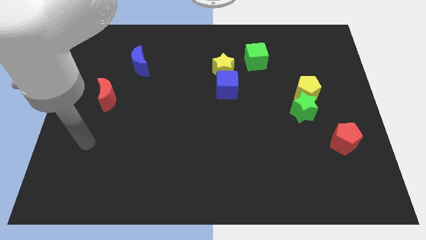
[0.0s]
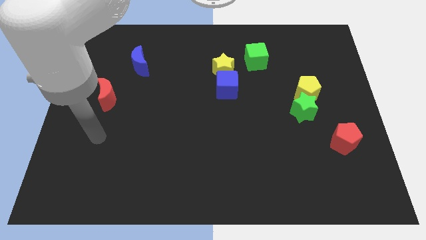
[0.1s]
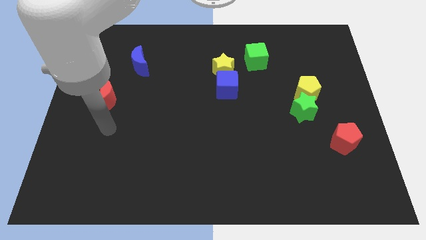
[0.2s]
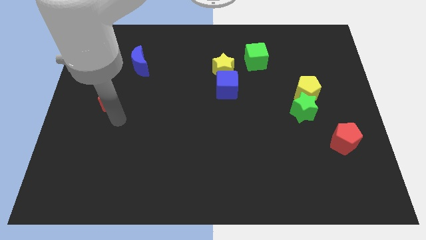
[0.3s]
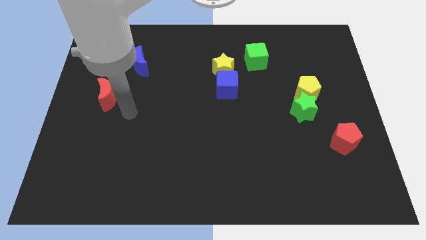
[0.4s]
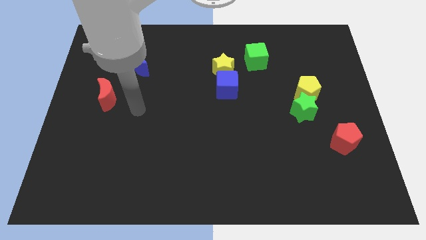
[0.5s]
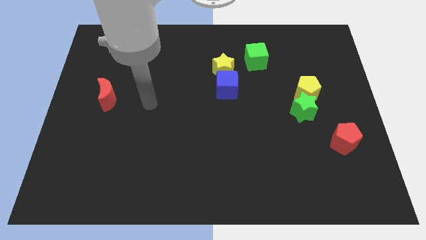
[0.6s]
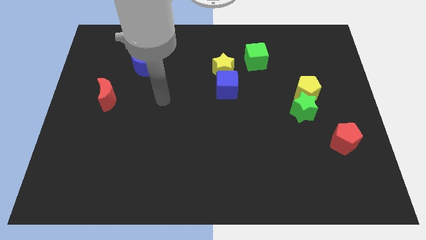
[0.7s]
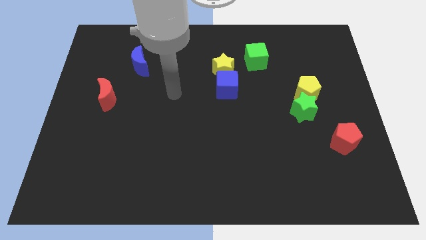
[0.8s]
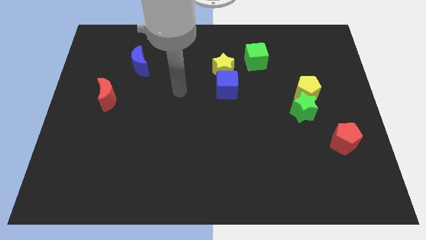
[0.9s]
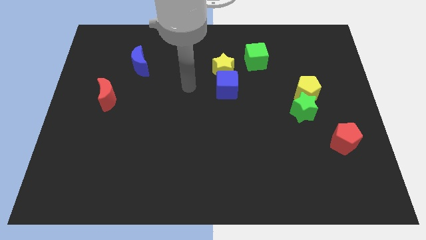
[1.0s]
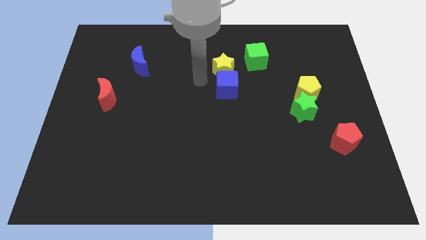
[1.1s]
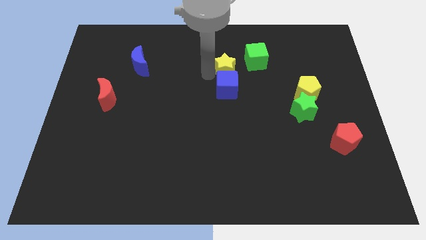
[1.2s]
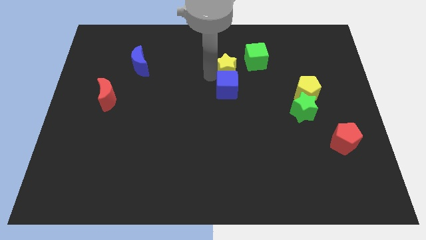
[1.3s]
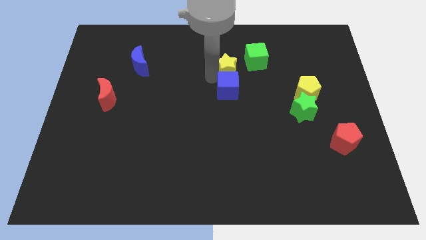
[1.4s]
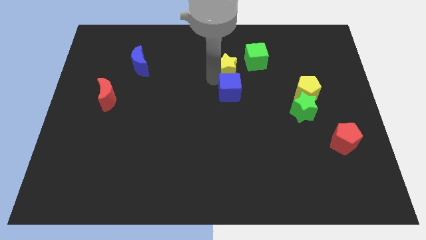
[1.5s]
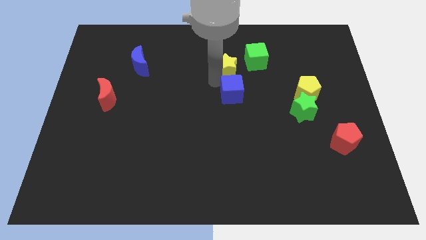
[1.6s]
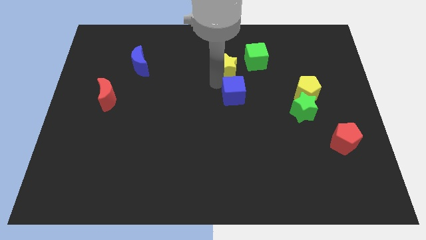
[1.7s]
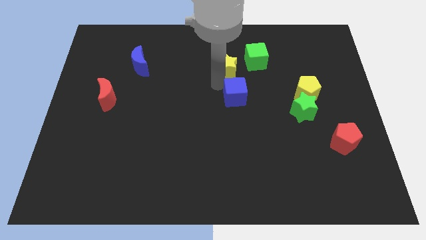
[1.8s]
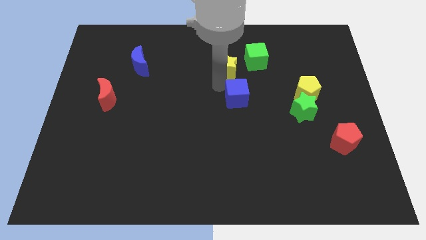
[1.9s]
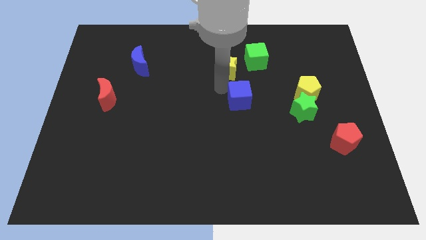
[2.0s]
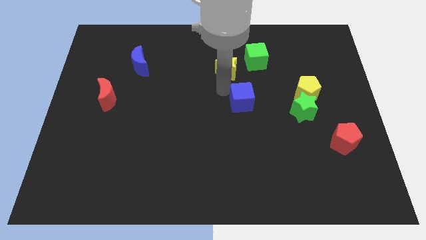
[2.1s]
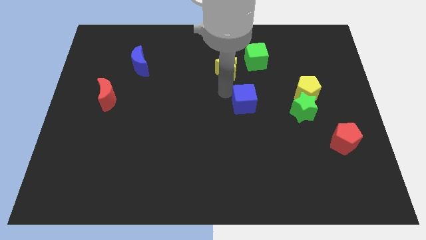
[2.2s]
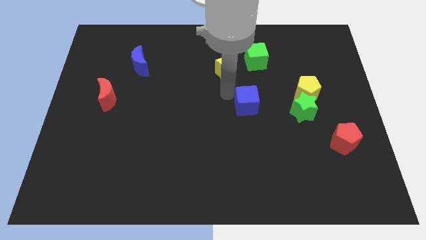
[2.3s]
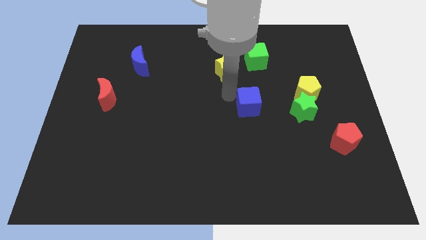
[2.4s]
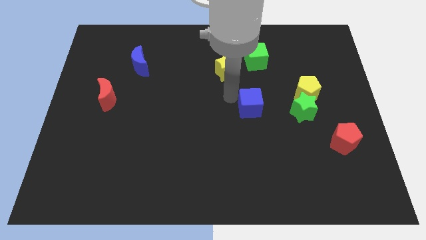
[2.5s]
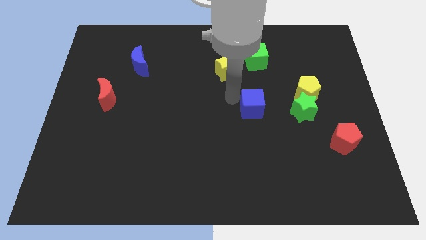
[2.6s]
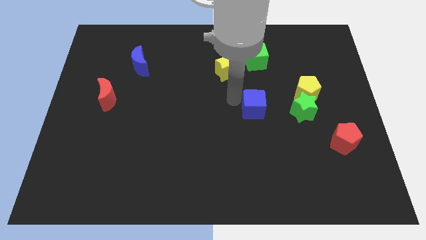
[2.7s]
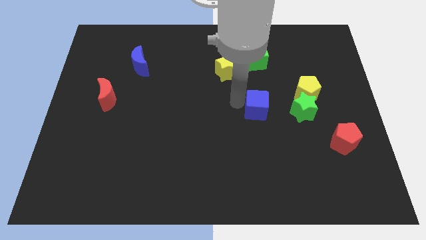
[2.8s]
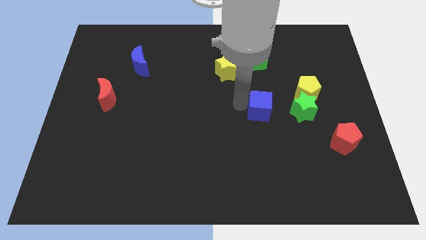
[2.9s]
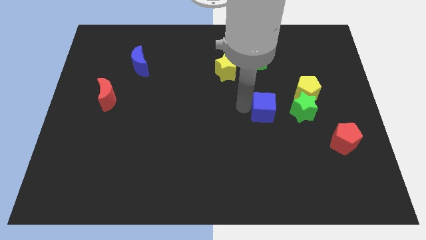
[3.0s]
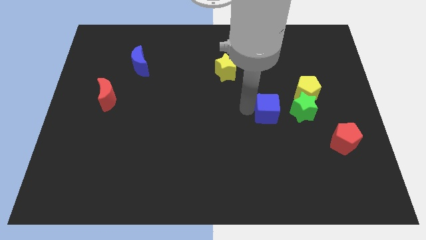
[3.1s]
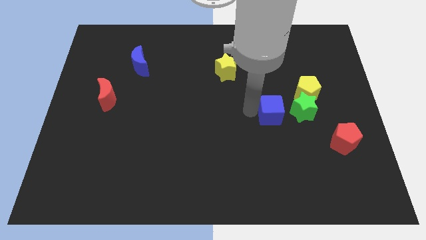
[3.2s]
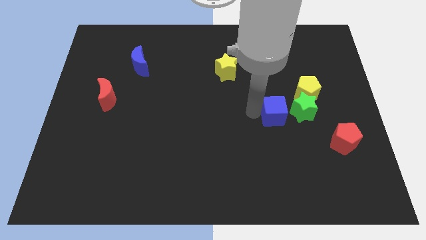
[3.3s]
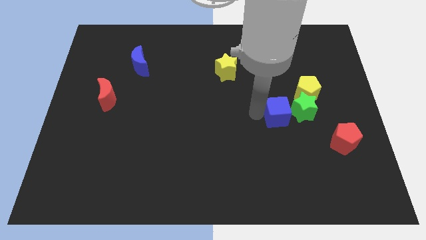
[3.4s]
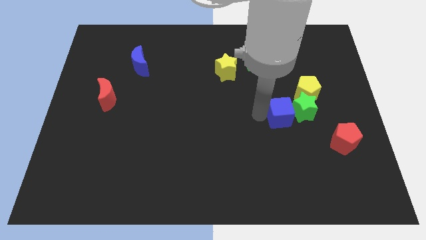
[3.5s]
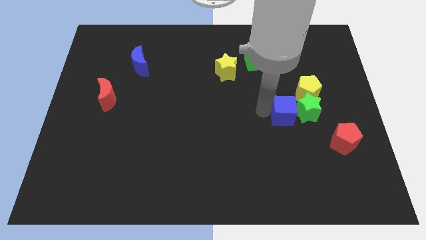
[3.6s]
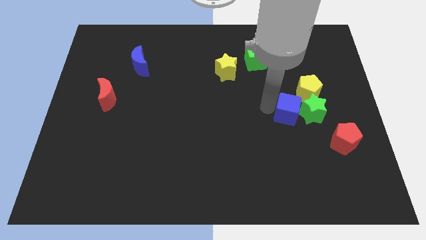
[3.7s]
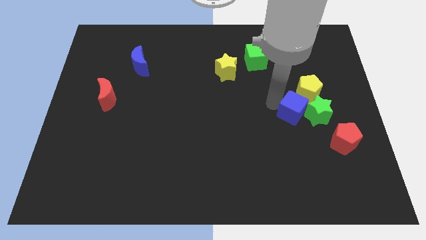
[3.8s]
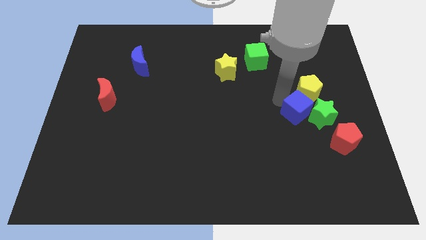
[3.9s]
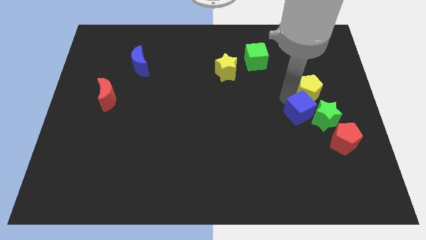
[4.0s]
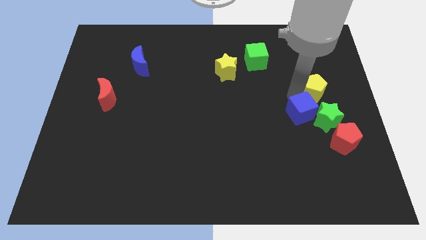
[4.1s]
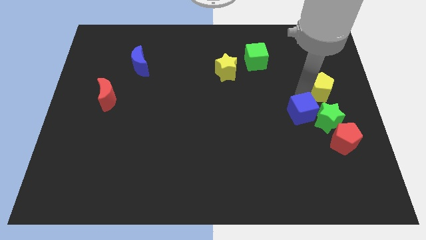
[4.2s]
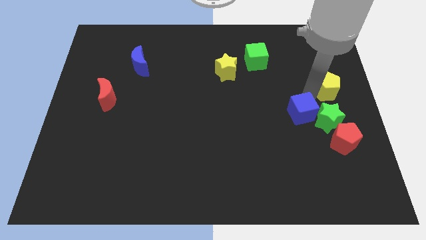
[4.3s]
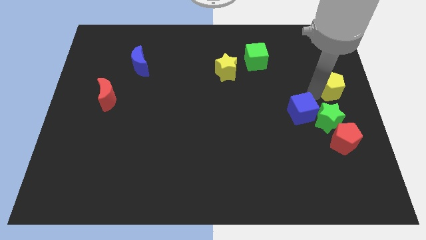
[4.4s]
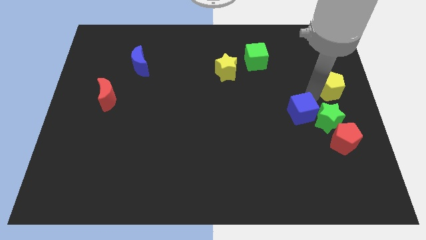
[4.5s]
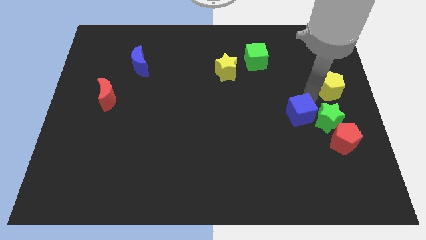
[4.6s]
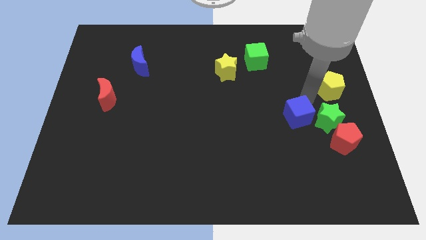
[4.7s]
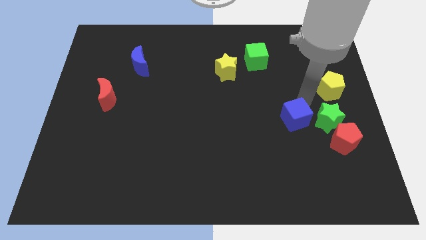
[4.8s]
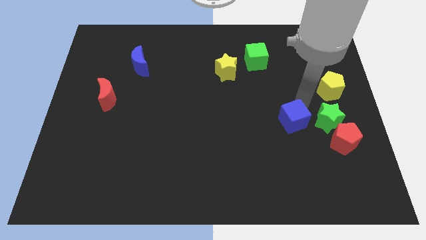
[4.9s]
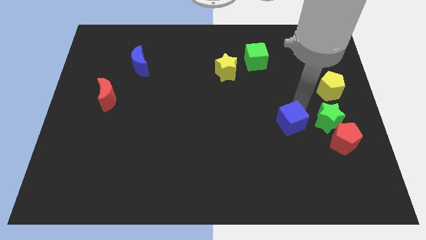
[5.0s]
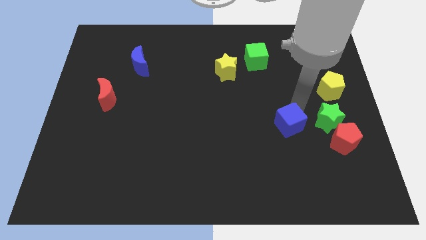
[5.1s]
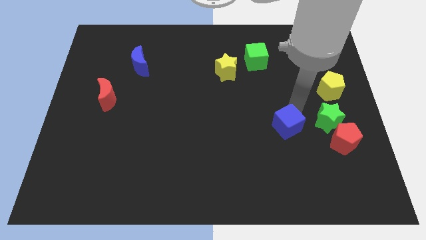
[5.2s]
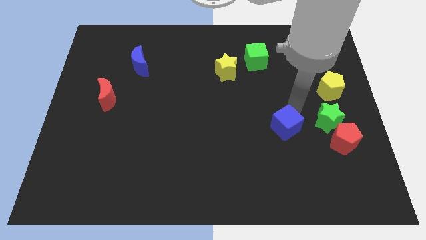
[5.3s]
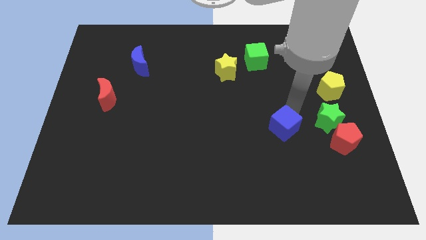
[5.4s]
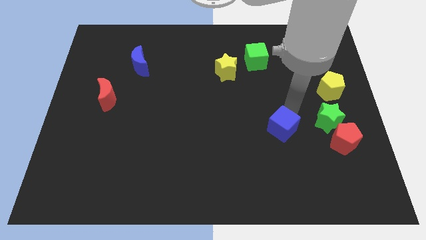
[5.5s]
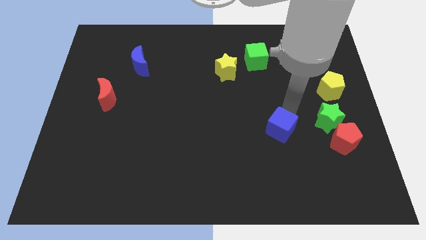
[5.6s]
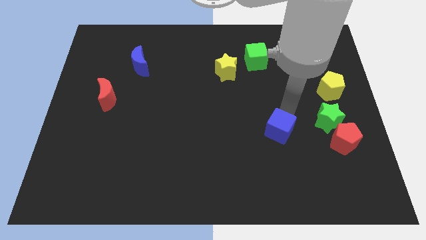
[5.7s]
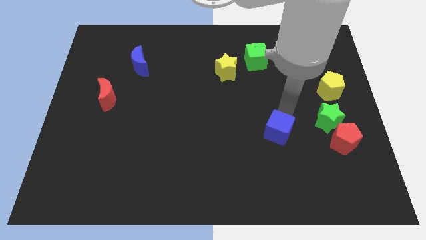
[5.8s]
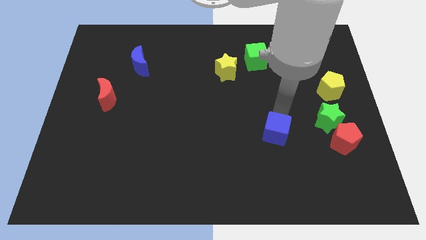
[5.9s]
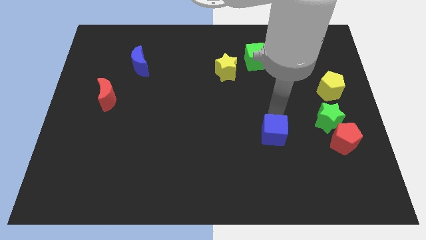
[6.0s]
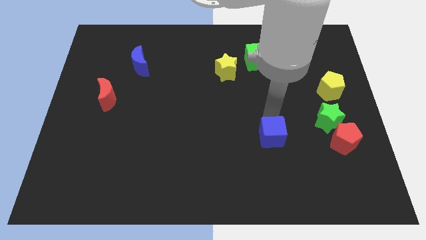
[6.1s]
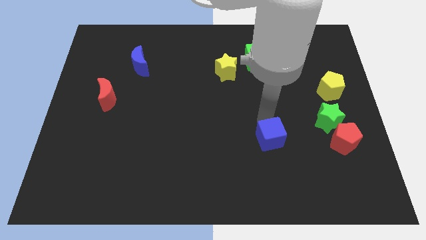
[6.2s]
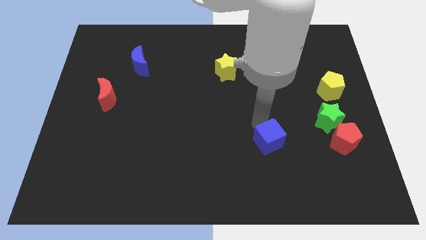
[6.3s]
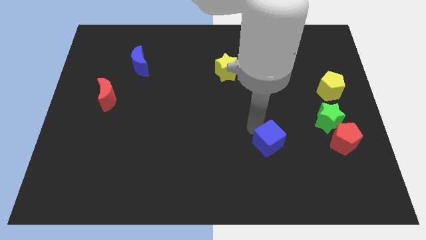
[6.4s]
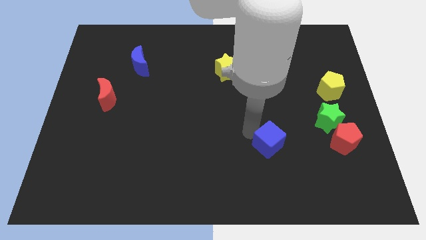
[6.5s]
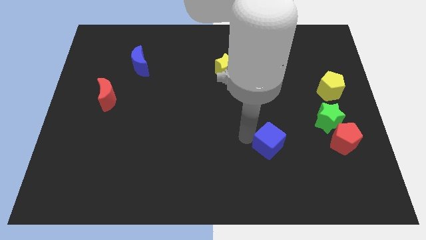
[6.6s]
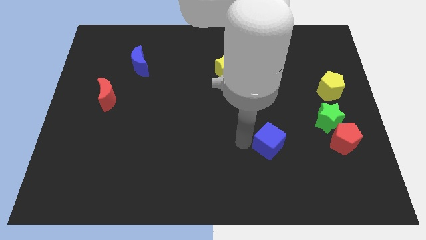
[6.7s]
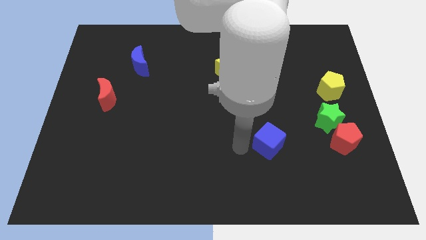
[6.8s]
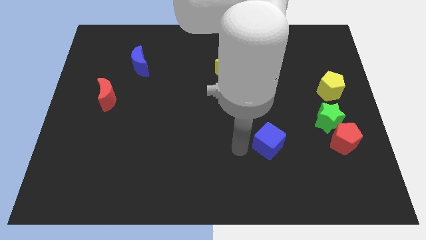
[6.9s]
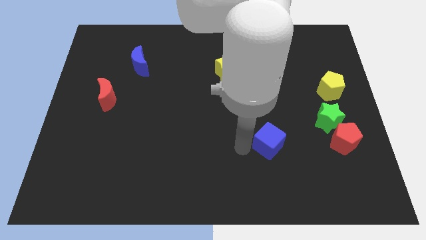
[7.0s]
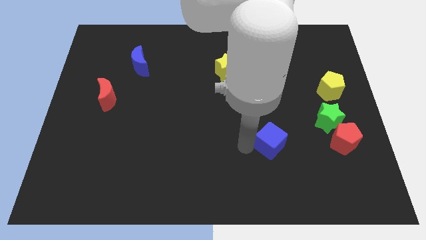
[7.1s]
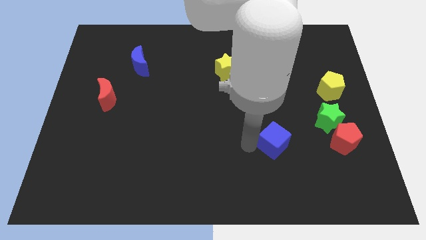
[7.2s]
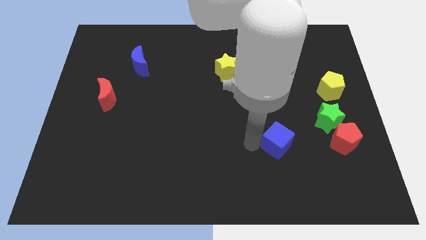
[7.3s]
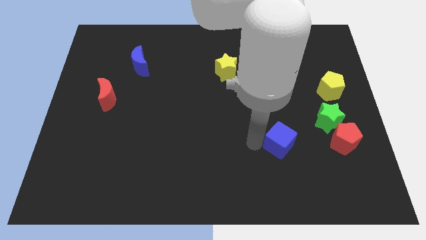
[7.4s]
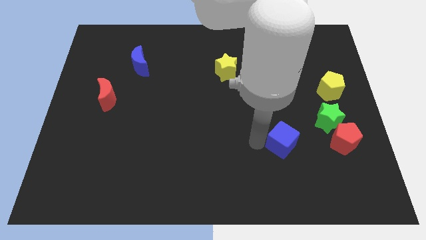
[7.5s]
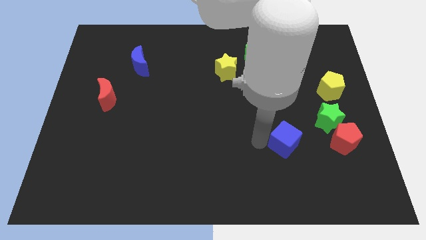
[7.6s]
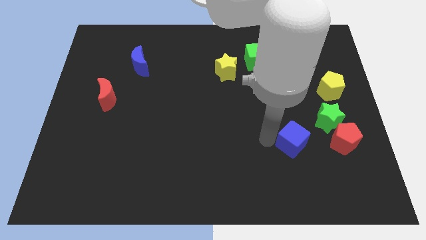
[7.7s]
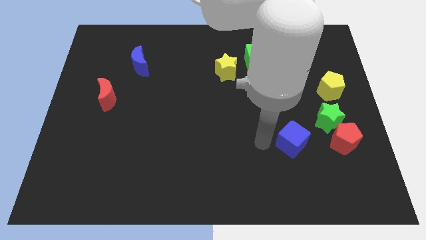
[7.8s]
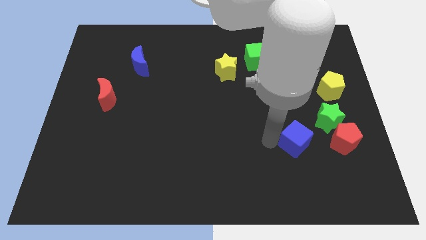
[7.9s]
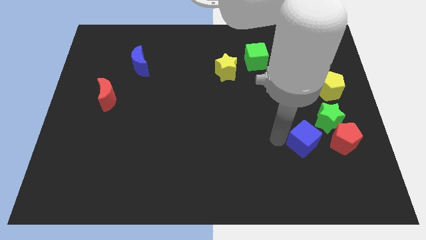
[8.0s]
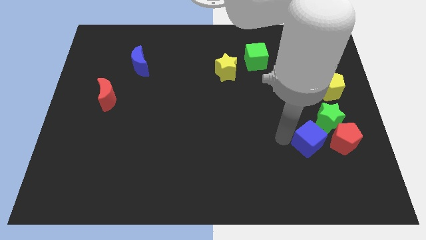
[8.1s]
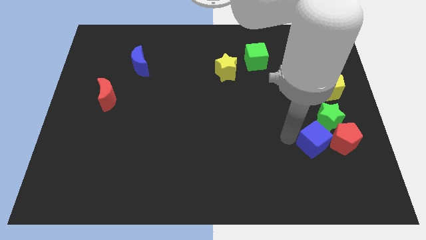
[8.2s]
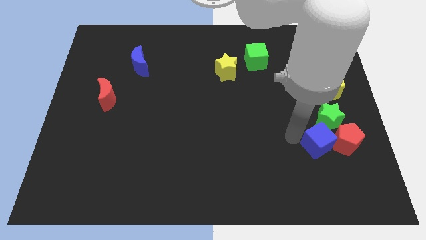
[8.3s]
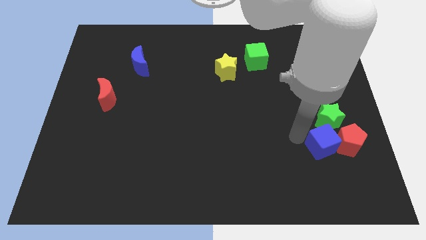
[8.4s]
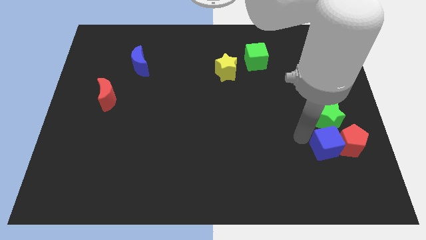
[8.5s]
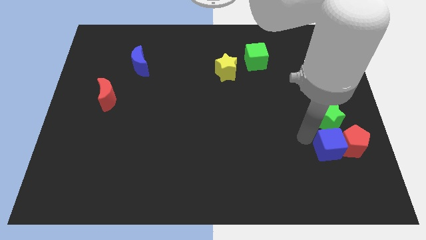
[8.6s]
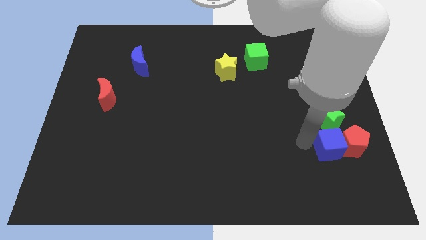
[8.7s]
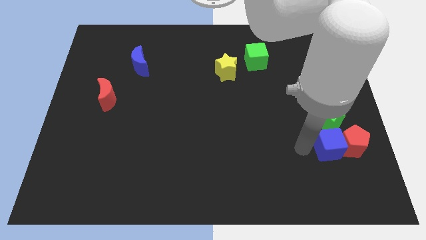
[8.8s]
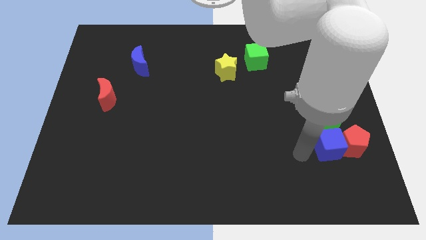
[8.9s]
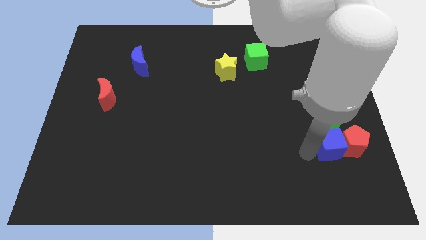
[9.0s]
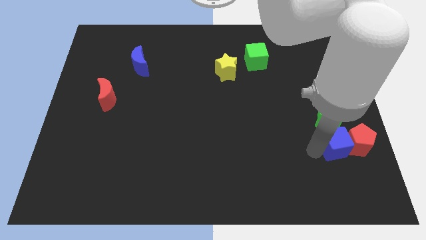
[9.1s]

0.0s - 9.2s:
push the blue cube to the bottom right of the green star
